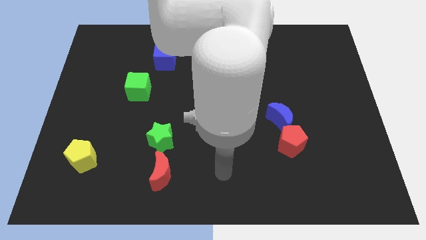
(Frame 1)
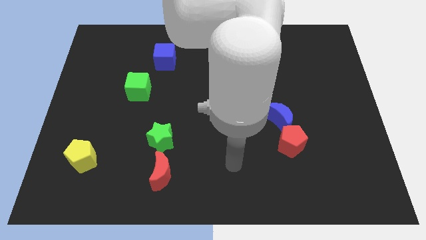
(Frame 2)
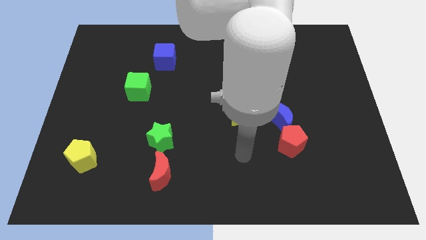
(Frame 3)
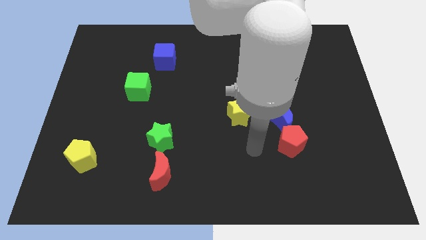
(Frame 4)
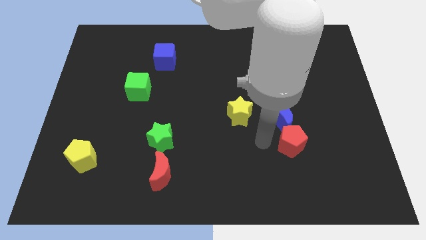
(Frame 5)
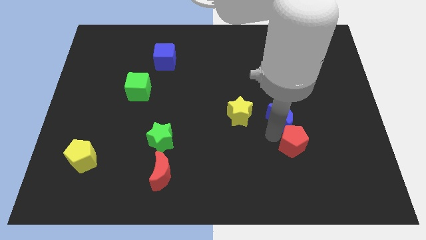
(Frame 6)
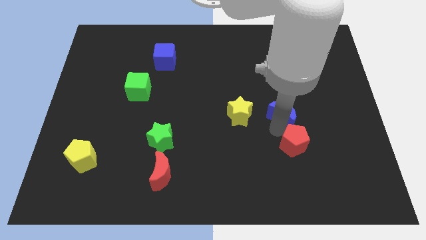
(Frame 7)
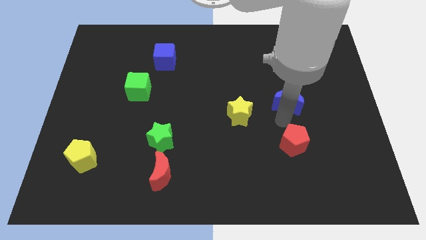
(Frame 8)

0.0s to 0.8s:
pull the red pentagon apart from the blue moon

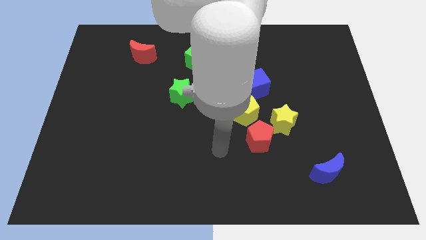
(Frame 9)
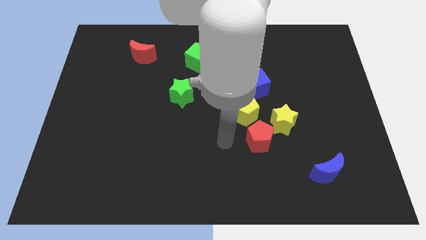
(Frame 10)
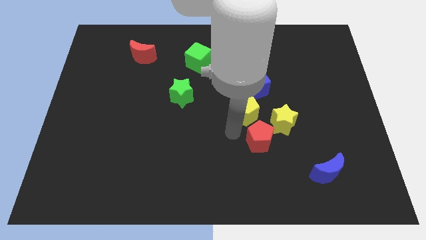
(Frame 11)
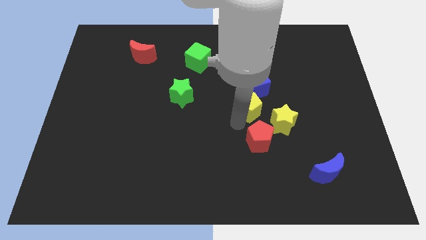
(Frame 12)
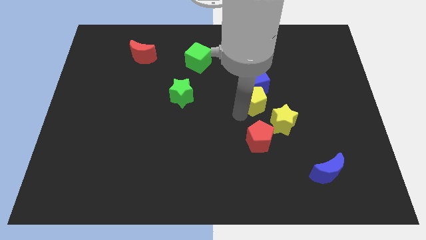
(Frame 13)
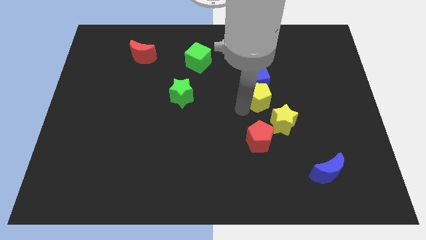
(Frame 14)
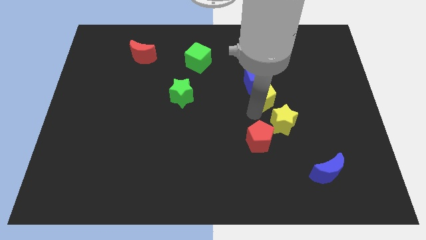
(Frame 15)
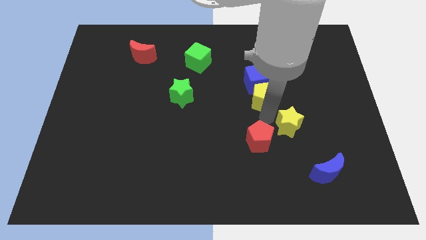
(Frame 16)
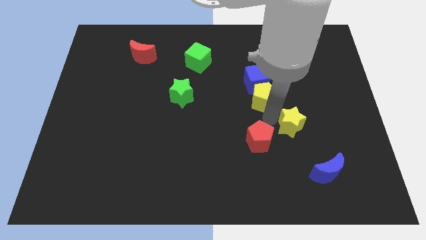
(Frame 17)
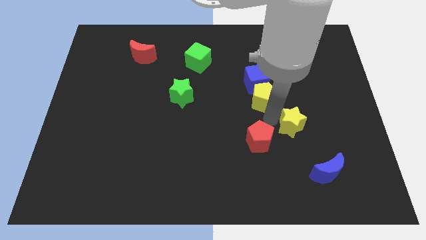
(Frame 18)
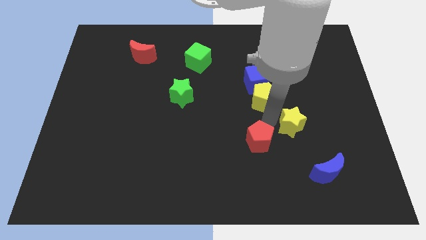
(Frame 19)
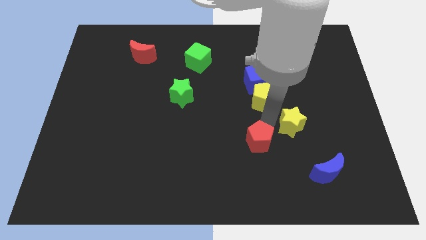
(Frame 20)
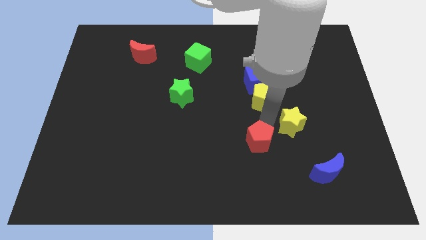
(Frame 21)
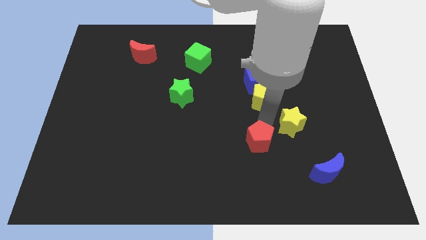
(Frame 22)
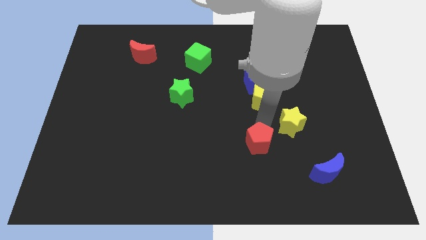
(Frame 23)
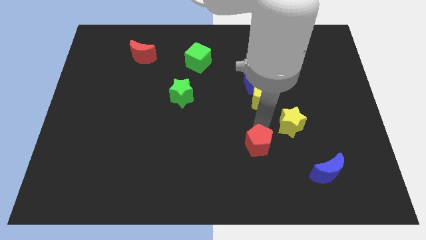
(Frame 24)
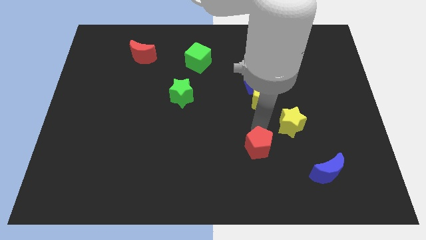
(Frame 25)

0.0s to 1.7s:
separate the red pentagon from the yellow star and yellow pentagon

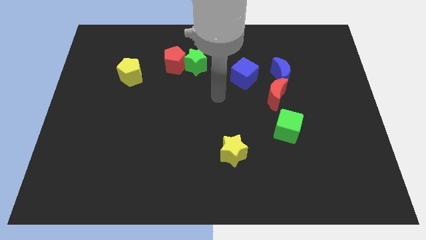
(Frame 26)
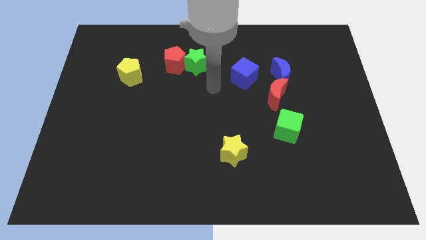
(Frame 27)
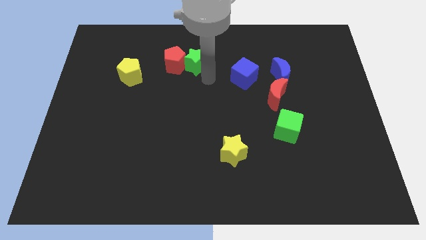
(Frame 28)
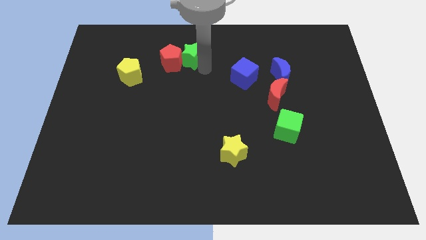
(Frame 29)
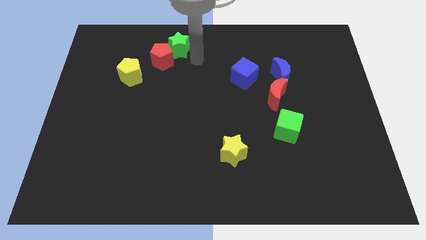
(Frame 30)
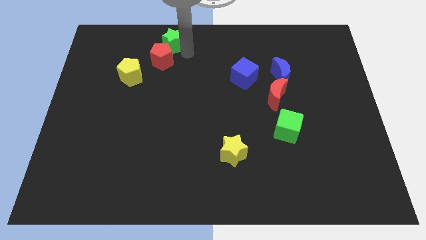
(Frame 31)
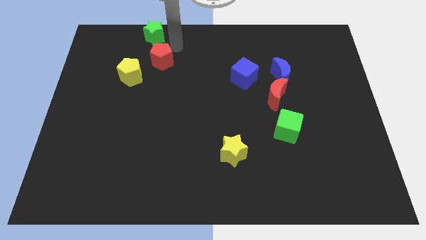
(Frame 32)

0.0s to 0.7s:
separate the red pentagon from the green star

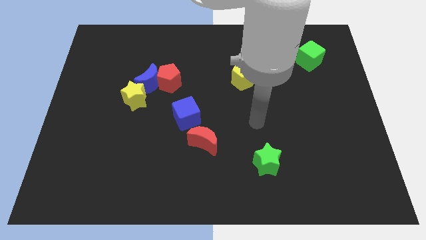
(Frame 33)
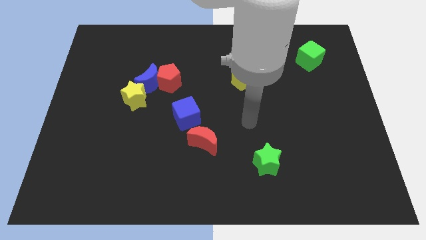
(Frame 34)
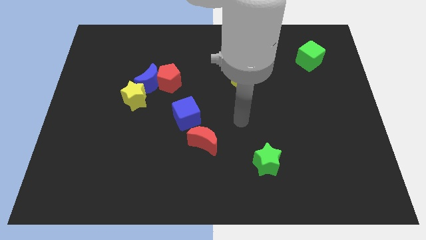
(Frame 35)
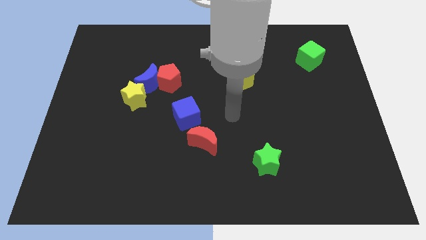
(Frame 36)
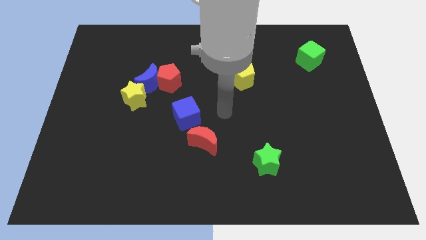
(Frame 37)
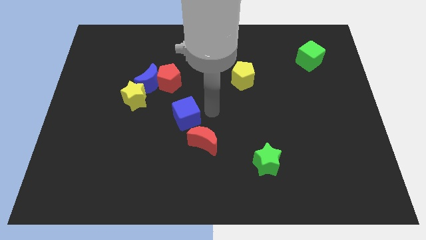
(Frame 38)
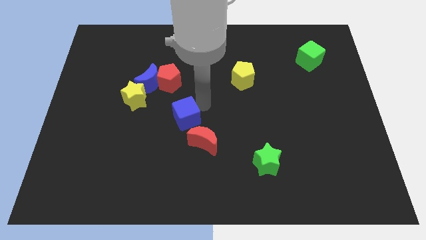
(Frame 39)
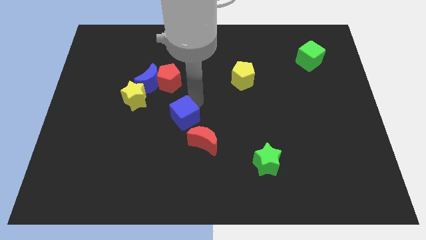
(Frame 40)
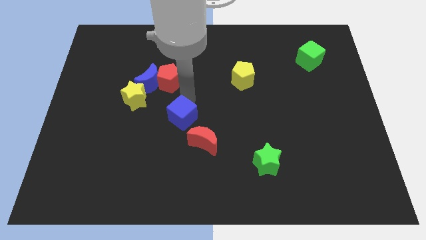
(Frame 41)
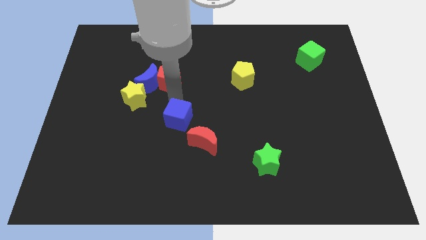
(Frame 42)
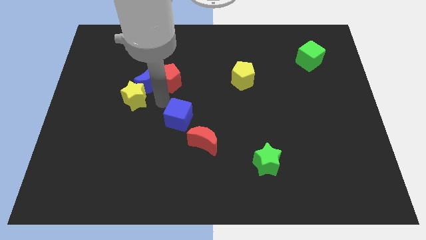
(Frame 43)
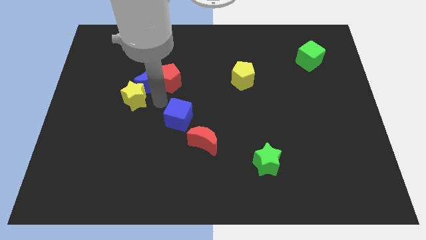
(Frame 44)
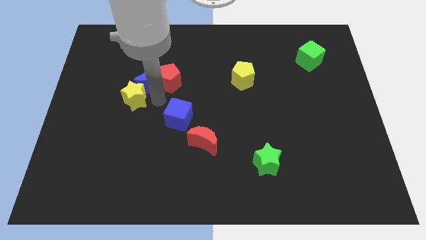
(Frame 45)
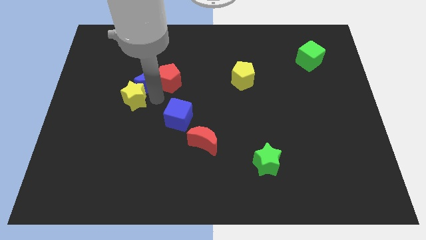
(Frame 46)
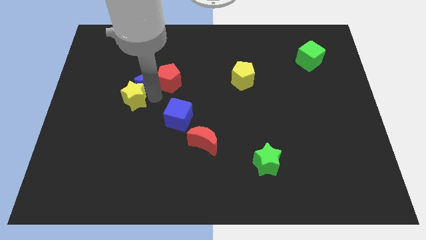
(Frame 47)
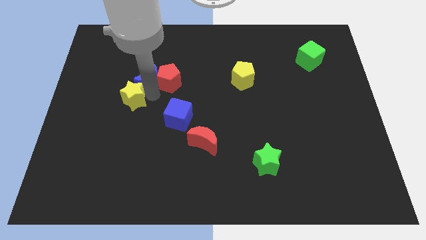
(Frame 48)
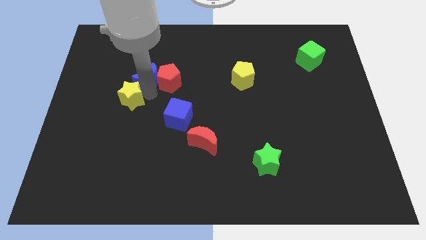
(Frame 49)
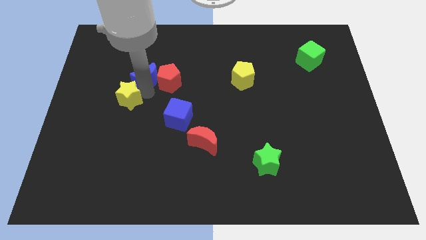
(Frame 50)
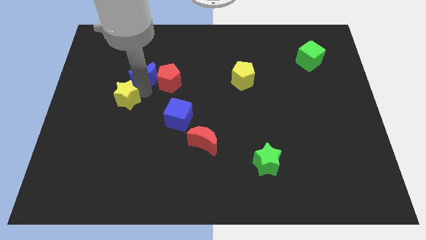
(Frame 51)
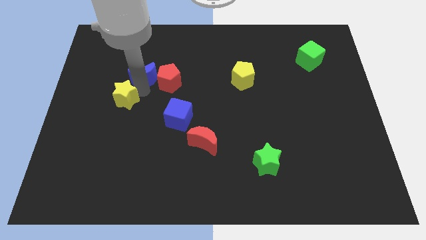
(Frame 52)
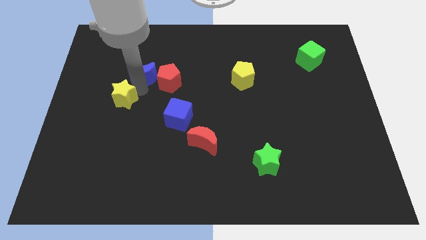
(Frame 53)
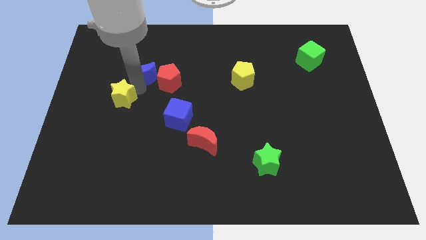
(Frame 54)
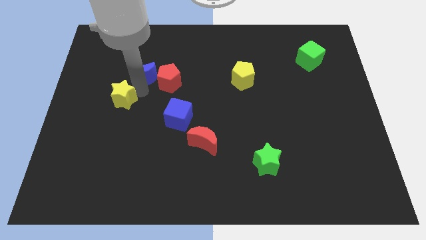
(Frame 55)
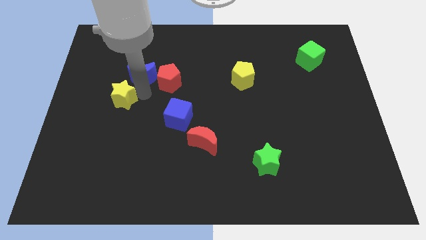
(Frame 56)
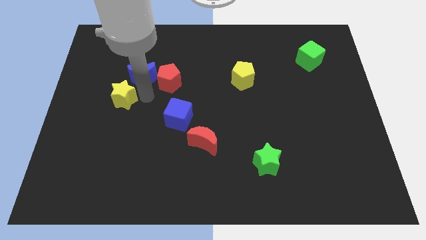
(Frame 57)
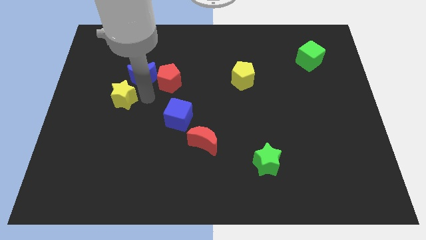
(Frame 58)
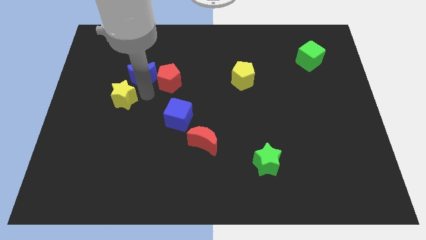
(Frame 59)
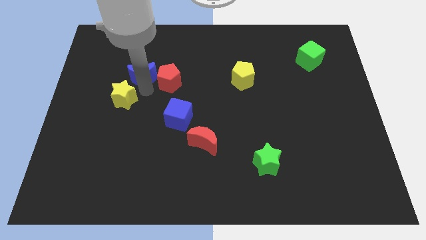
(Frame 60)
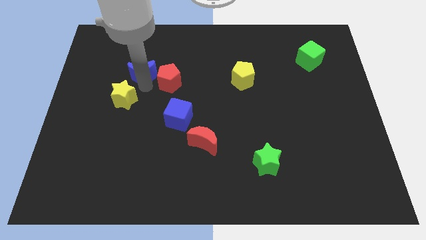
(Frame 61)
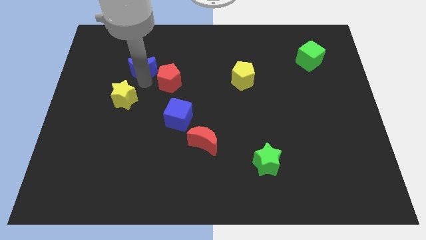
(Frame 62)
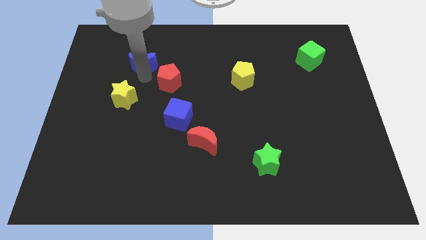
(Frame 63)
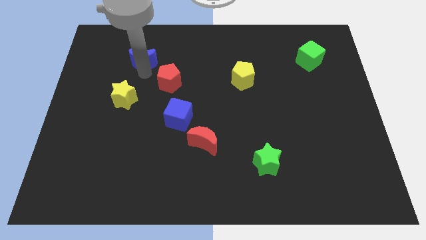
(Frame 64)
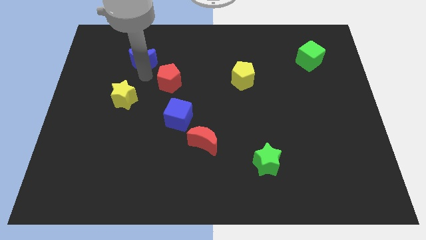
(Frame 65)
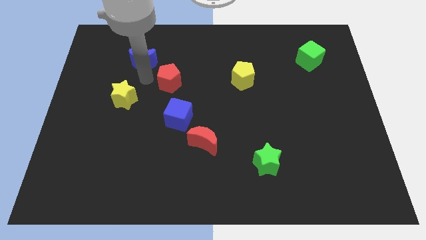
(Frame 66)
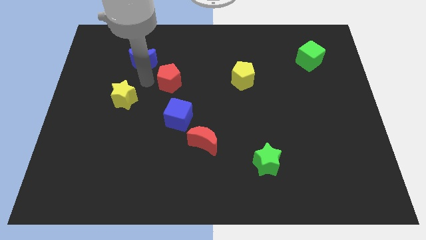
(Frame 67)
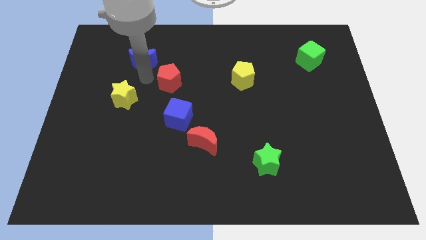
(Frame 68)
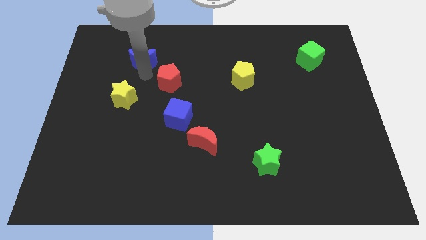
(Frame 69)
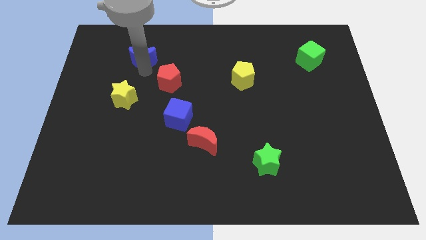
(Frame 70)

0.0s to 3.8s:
separate the blue moon from the red pentagon and yellow star

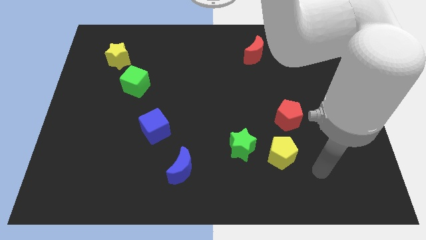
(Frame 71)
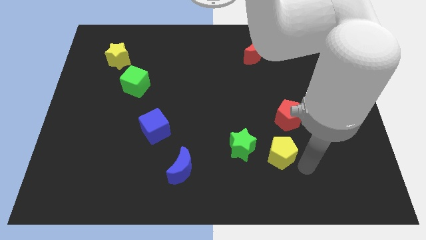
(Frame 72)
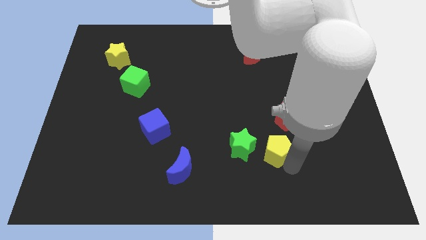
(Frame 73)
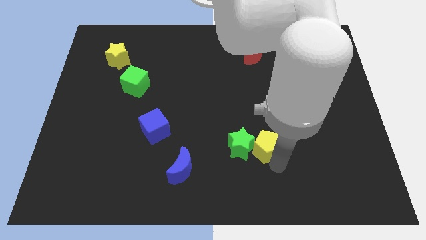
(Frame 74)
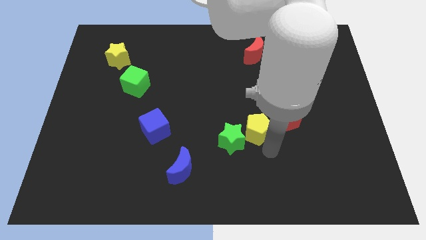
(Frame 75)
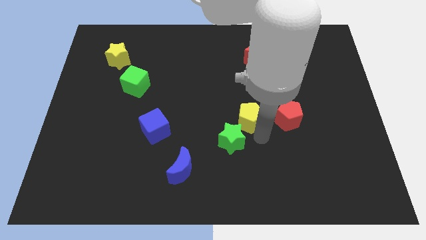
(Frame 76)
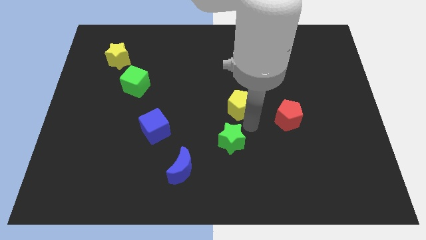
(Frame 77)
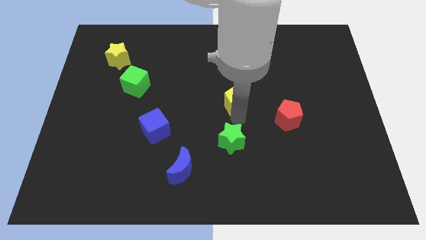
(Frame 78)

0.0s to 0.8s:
pull the green star apart from the yellow pentagon

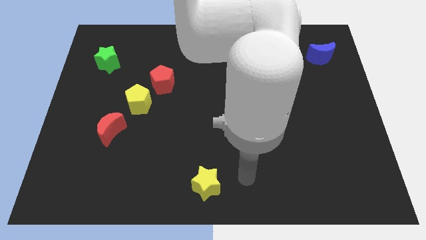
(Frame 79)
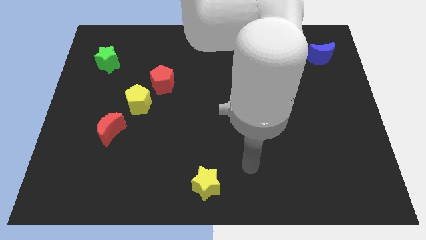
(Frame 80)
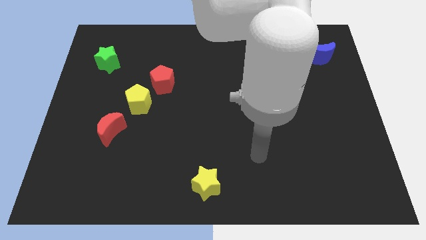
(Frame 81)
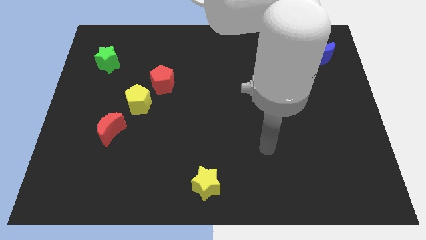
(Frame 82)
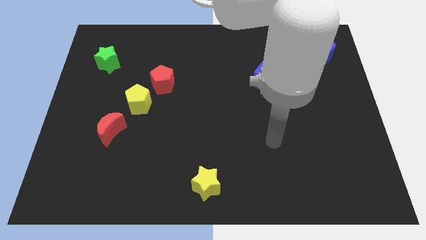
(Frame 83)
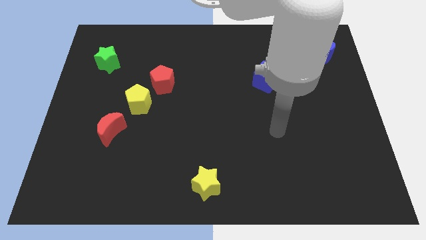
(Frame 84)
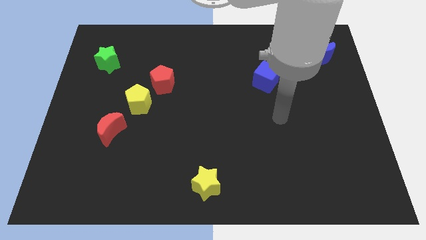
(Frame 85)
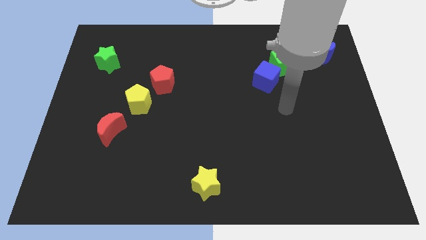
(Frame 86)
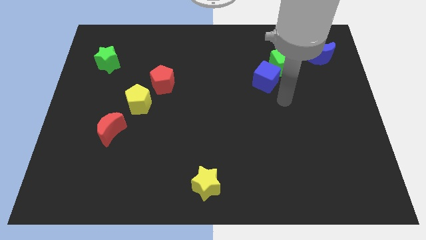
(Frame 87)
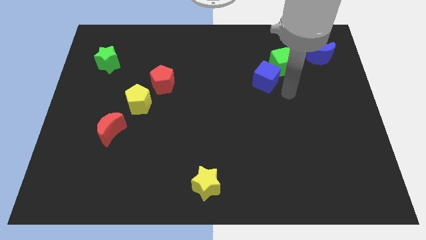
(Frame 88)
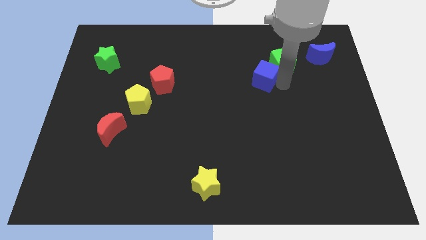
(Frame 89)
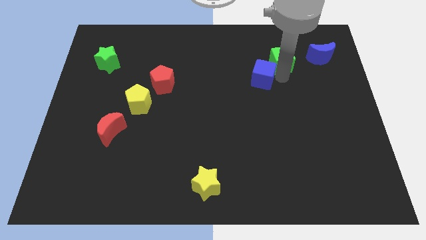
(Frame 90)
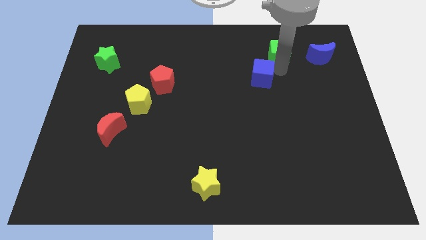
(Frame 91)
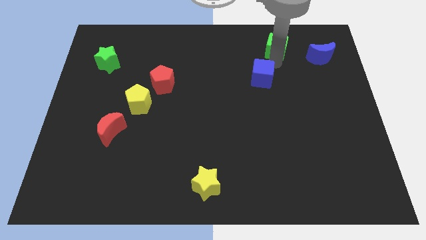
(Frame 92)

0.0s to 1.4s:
move the blue cube away from the green cube
